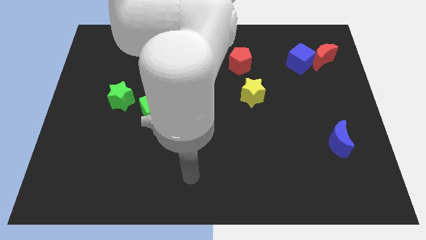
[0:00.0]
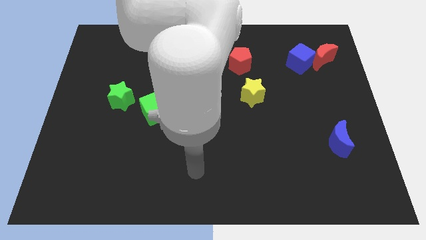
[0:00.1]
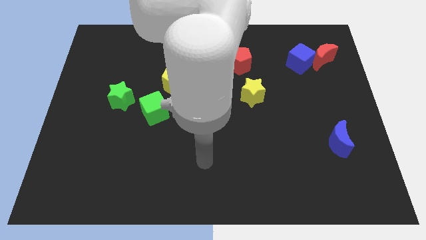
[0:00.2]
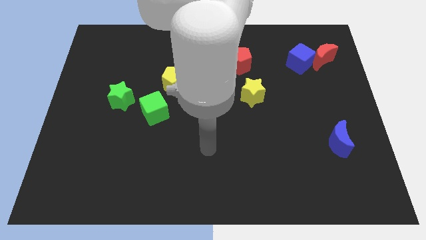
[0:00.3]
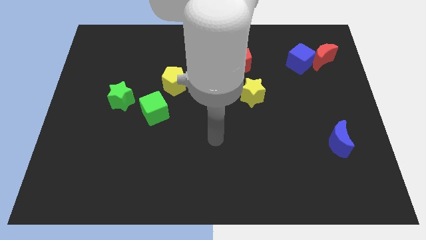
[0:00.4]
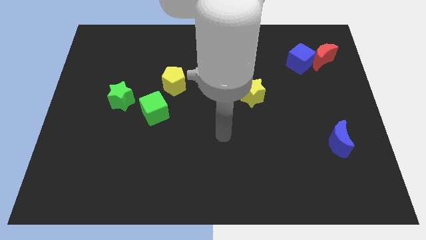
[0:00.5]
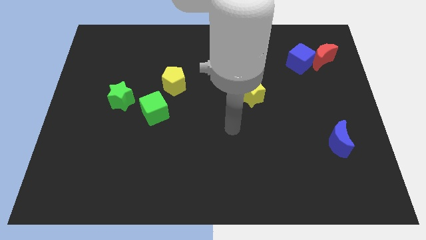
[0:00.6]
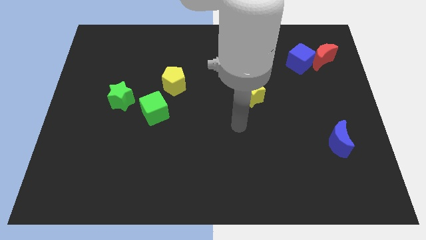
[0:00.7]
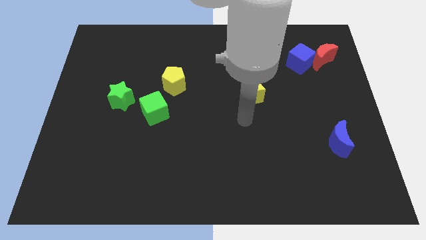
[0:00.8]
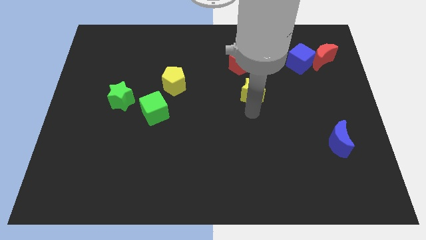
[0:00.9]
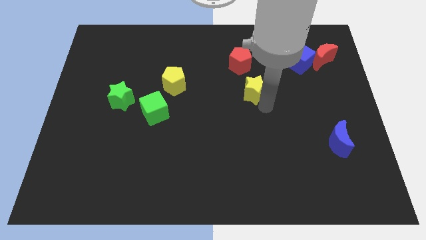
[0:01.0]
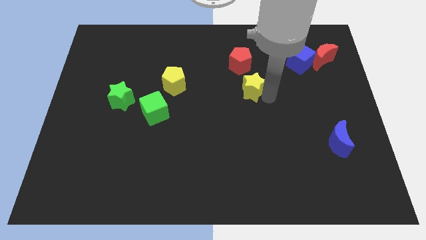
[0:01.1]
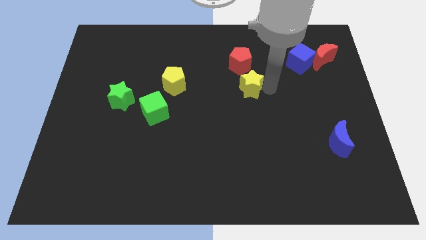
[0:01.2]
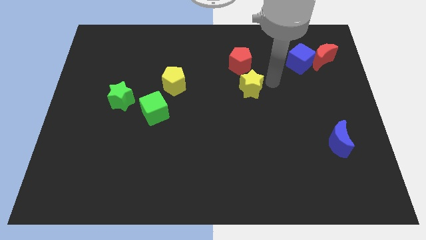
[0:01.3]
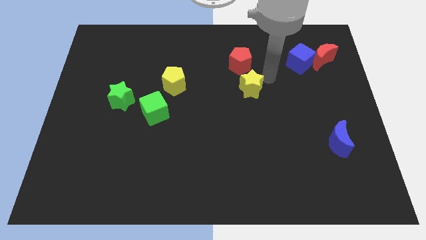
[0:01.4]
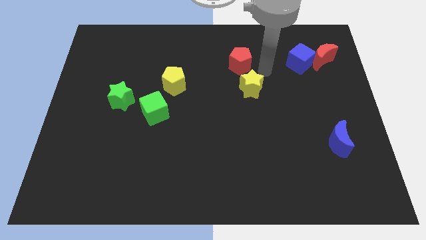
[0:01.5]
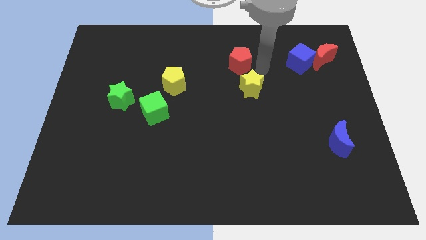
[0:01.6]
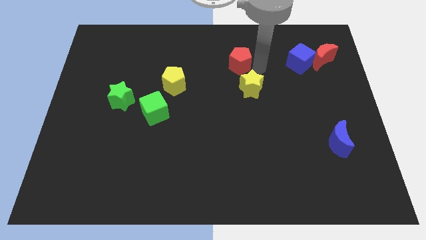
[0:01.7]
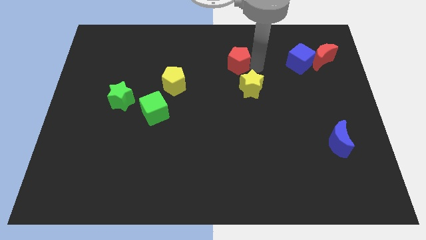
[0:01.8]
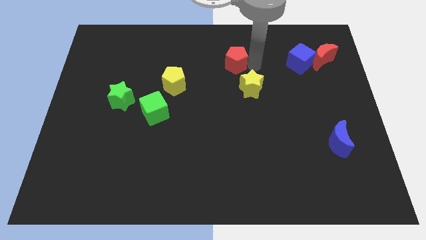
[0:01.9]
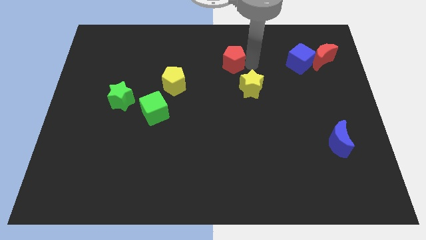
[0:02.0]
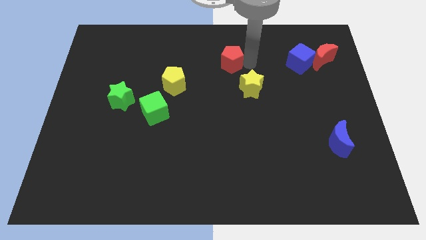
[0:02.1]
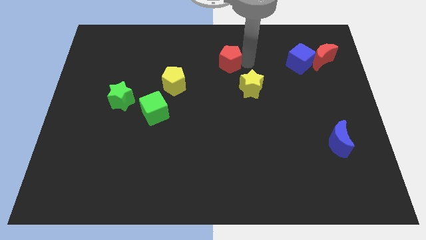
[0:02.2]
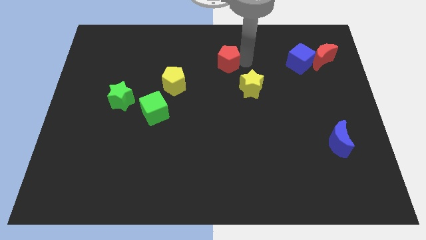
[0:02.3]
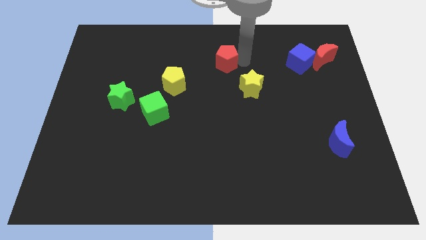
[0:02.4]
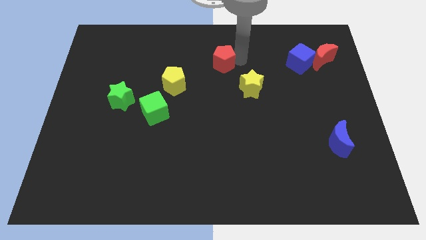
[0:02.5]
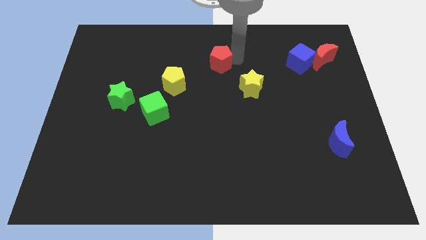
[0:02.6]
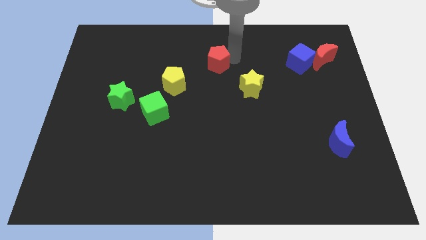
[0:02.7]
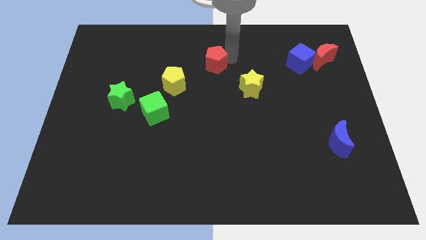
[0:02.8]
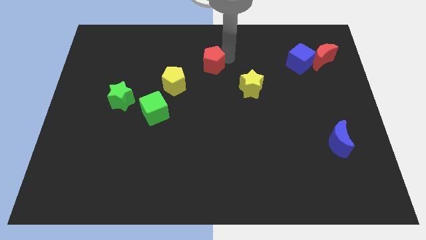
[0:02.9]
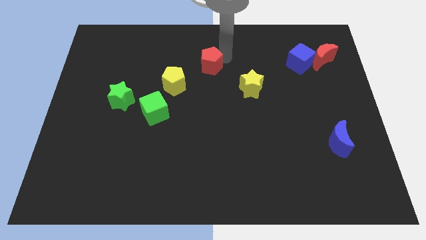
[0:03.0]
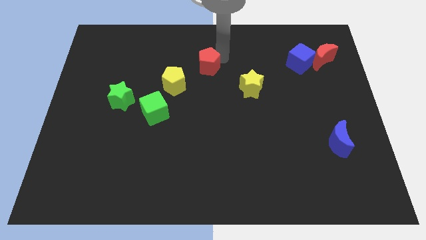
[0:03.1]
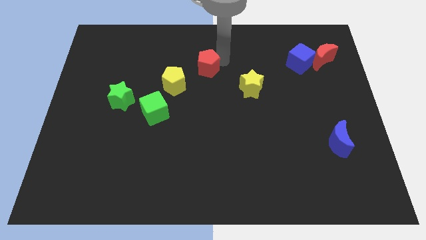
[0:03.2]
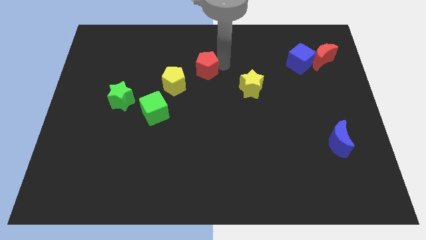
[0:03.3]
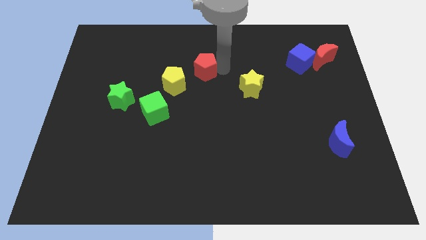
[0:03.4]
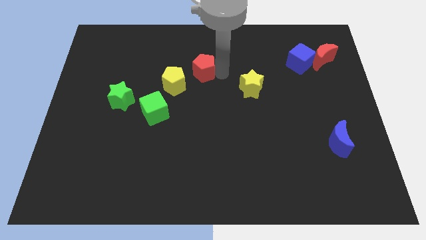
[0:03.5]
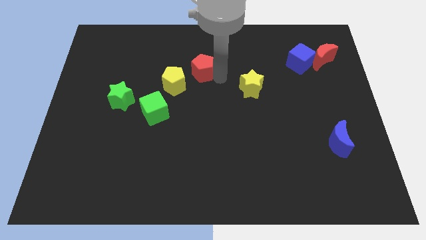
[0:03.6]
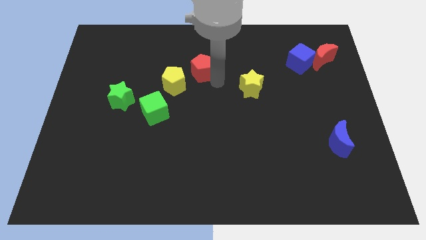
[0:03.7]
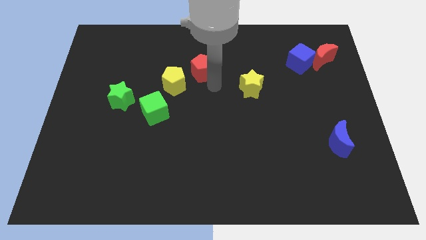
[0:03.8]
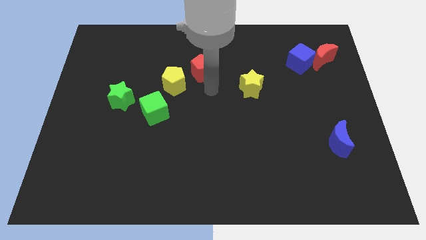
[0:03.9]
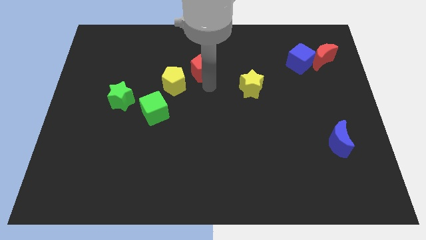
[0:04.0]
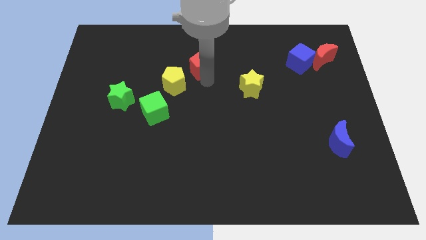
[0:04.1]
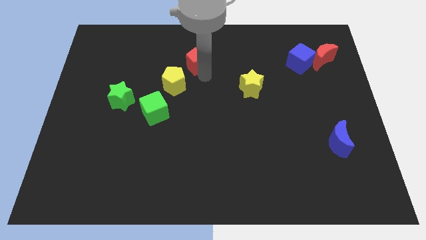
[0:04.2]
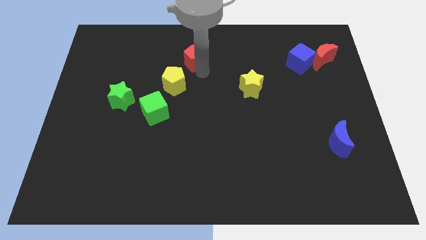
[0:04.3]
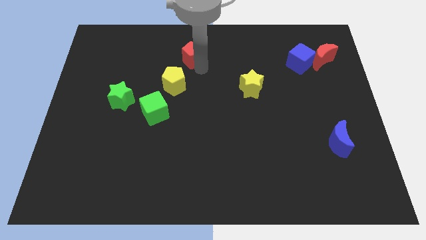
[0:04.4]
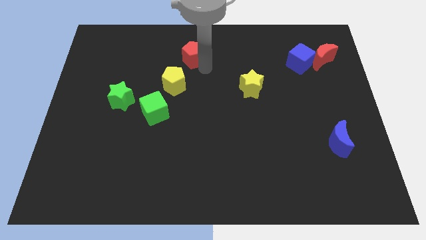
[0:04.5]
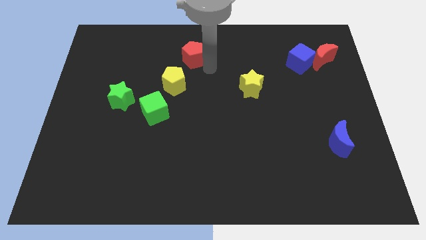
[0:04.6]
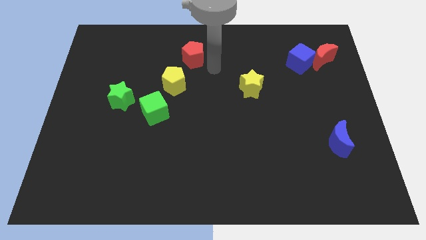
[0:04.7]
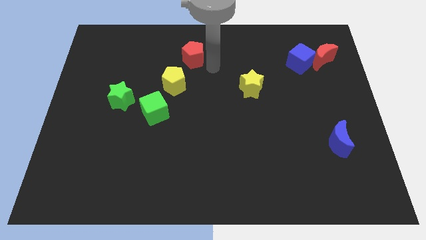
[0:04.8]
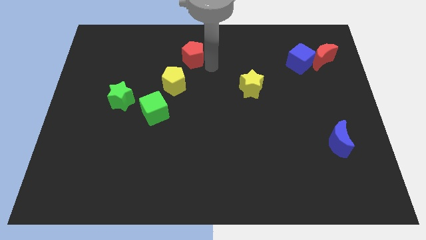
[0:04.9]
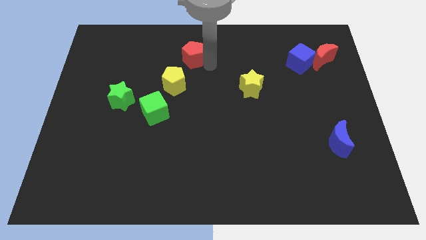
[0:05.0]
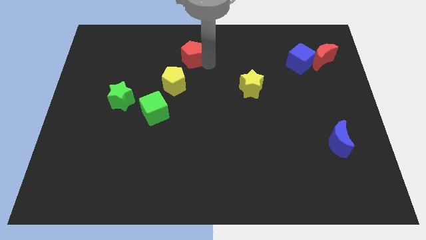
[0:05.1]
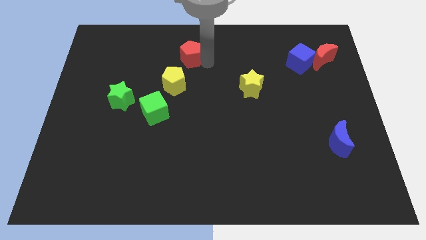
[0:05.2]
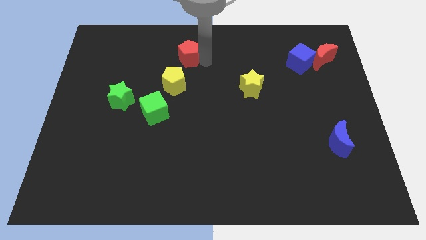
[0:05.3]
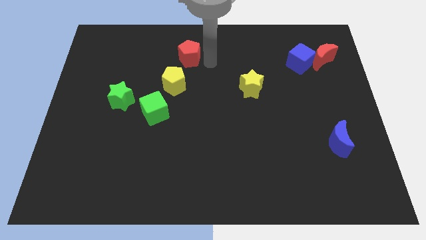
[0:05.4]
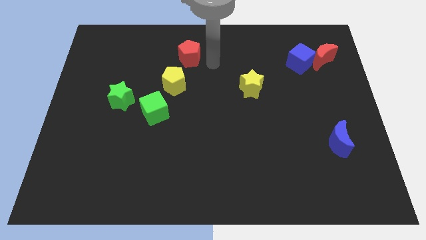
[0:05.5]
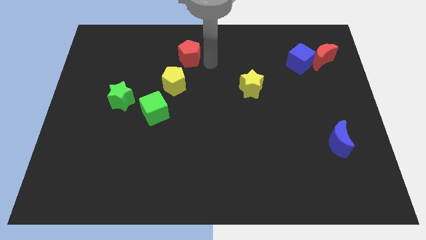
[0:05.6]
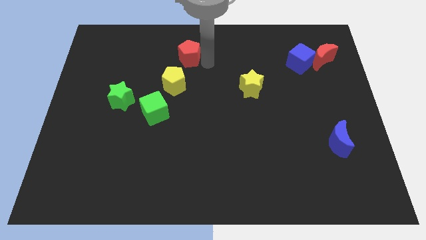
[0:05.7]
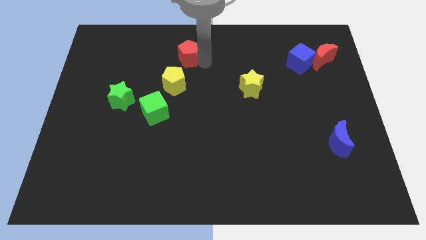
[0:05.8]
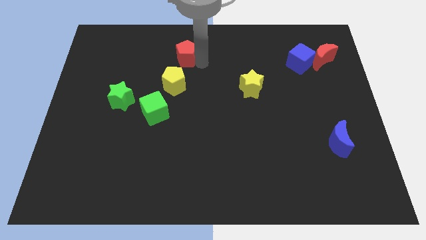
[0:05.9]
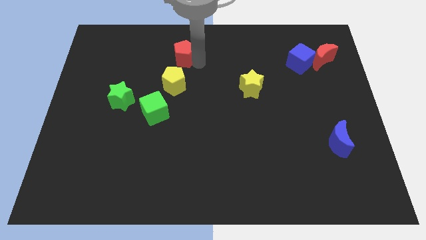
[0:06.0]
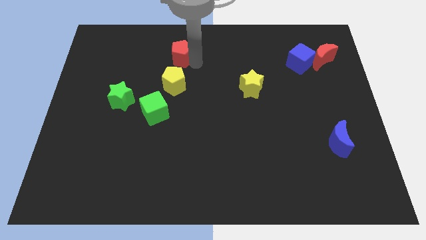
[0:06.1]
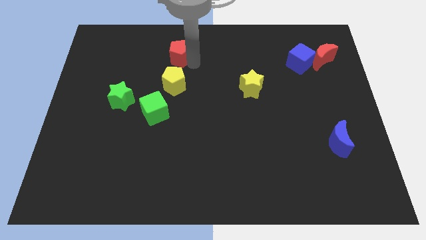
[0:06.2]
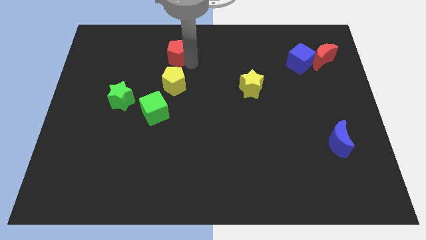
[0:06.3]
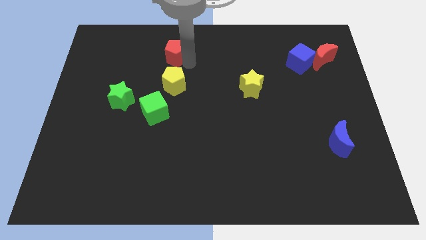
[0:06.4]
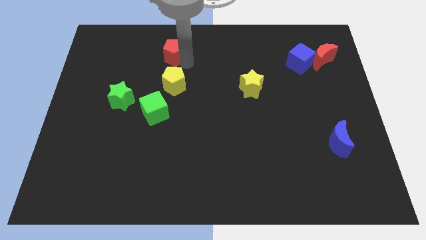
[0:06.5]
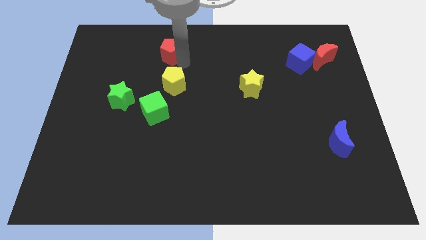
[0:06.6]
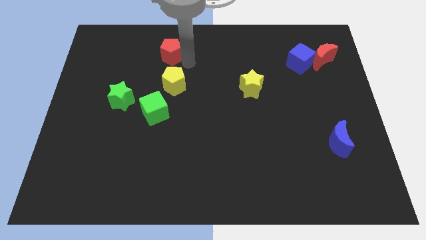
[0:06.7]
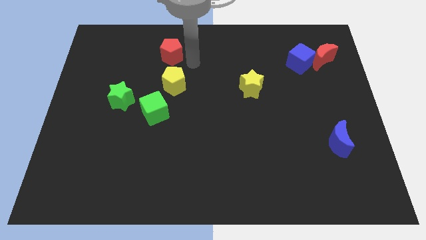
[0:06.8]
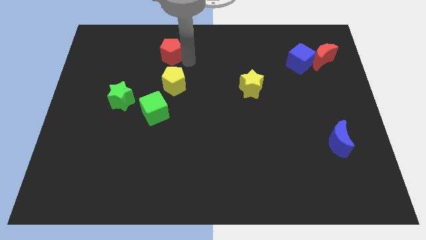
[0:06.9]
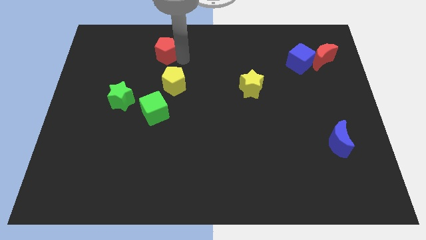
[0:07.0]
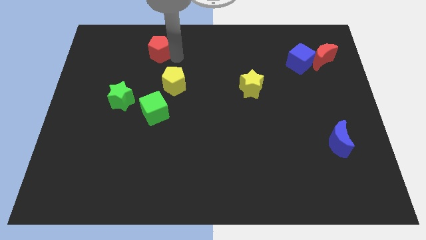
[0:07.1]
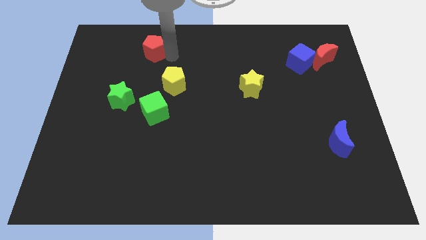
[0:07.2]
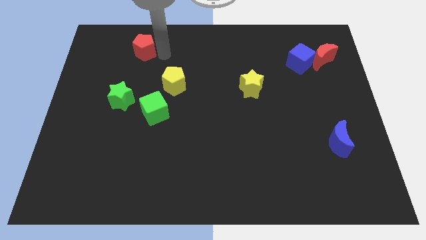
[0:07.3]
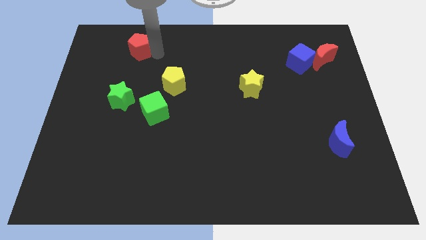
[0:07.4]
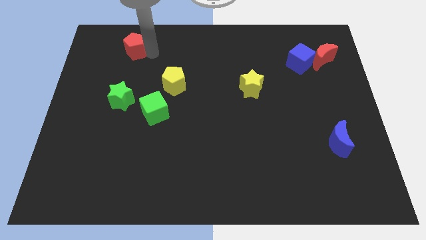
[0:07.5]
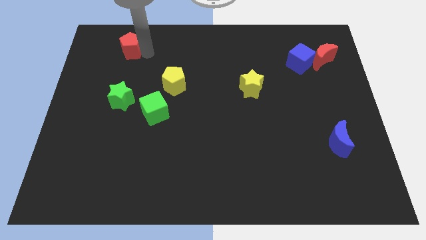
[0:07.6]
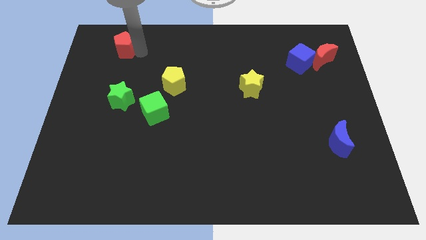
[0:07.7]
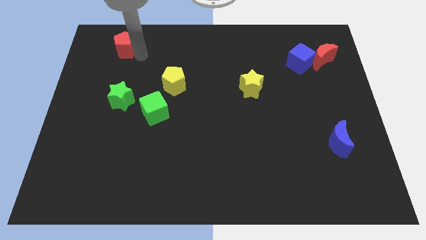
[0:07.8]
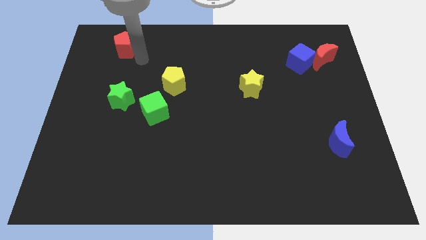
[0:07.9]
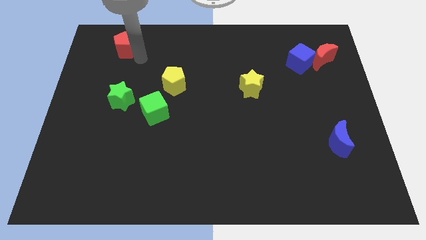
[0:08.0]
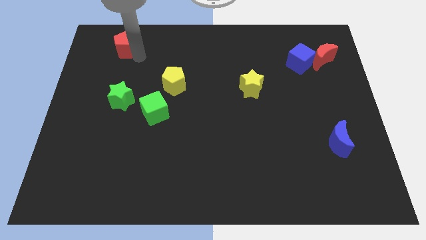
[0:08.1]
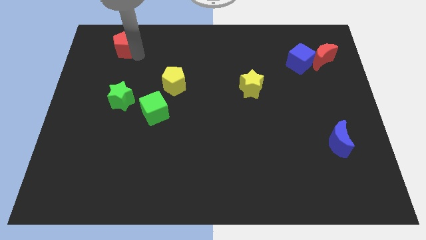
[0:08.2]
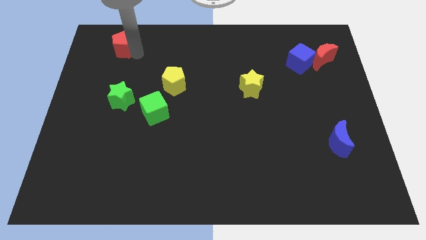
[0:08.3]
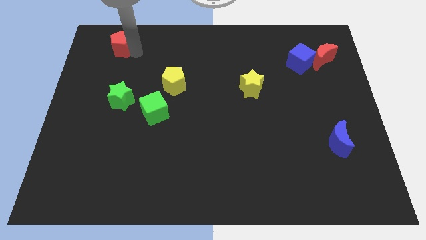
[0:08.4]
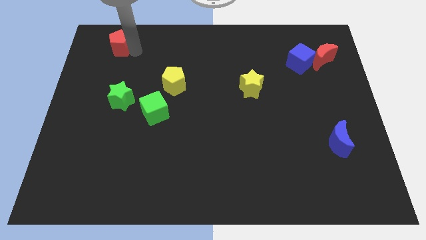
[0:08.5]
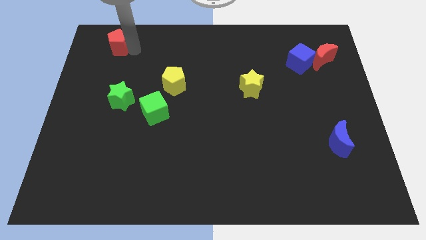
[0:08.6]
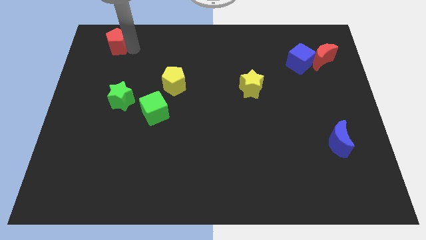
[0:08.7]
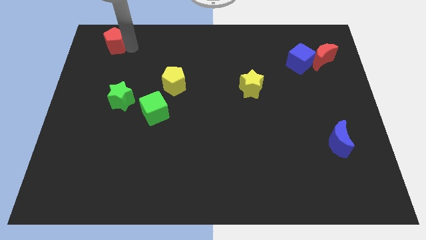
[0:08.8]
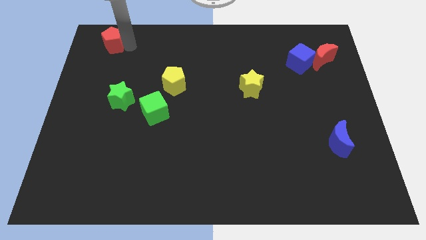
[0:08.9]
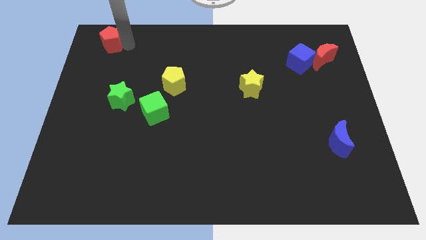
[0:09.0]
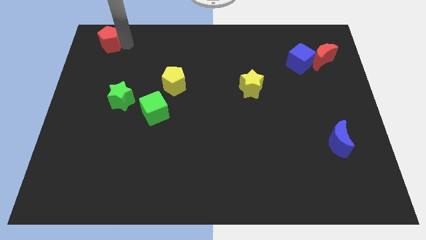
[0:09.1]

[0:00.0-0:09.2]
move the red pentagon to the top left of the board
